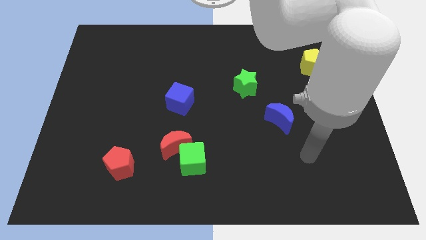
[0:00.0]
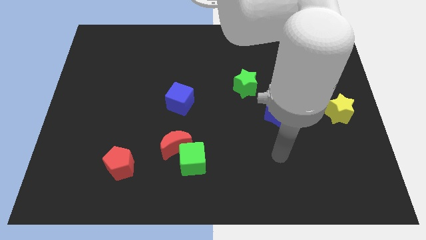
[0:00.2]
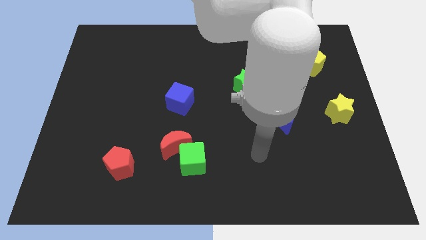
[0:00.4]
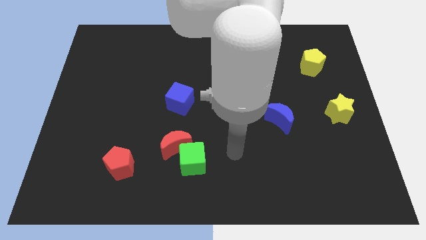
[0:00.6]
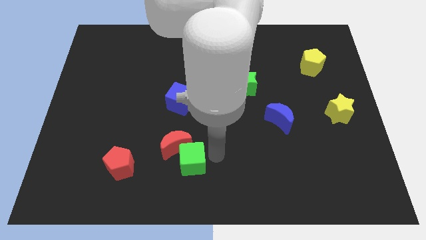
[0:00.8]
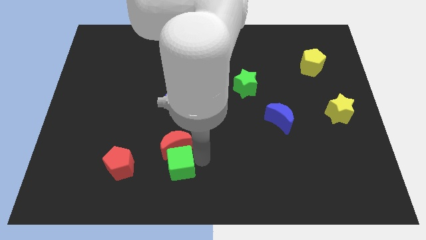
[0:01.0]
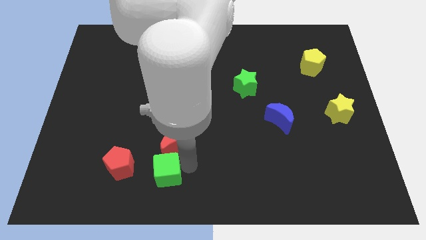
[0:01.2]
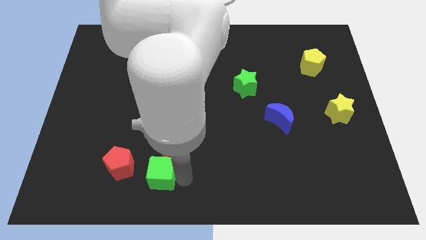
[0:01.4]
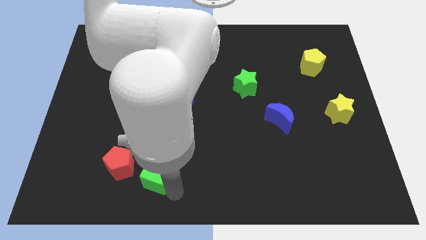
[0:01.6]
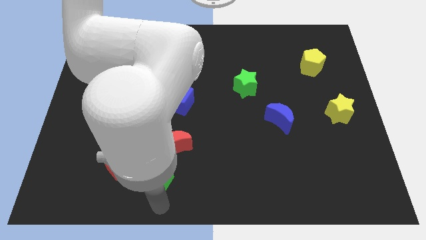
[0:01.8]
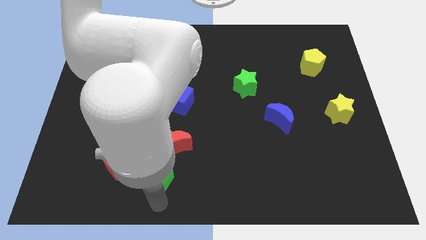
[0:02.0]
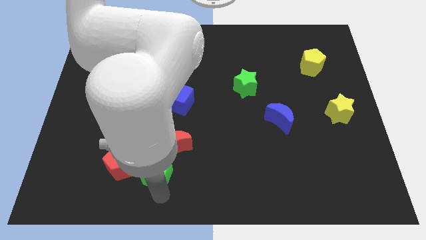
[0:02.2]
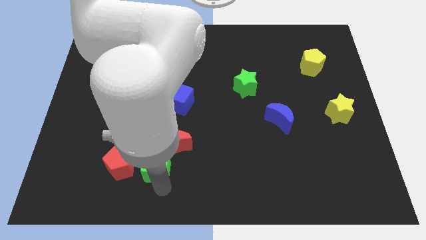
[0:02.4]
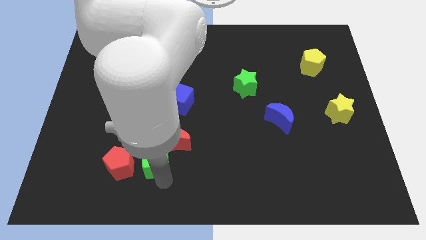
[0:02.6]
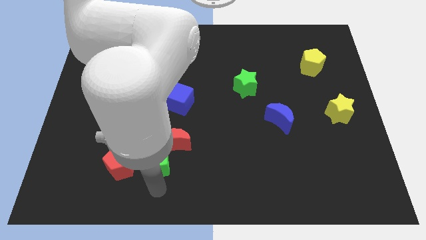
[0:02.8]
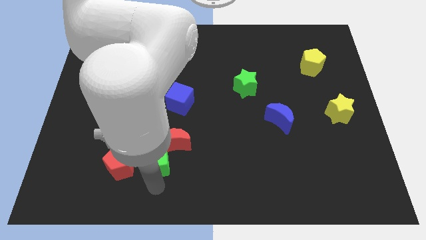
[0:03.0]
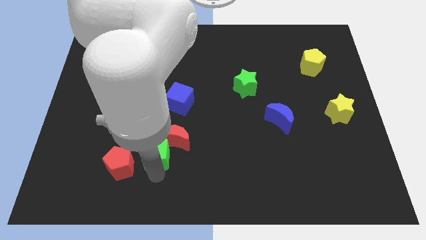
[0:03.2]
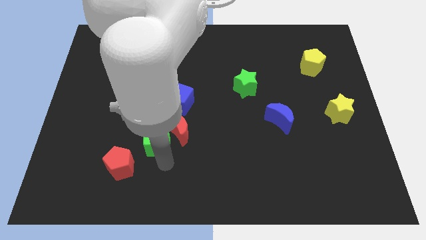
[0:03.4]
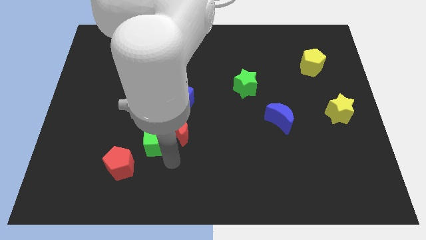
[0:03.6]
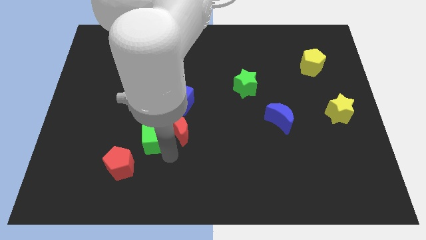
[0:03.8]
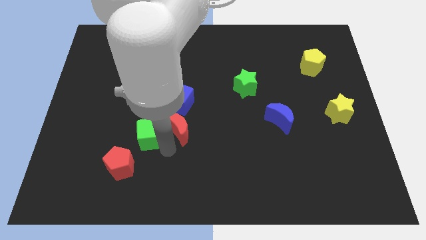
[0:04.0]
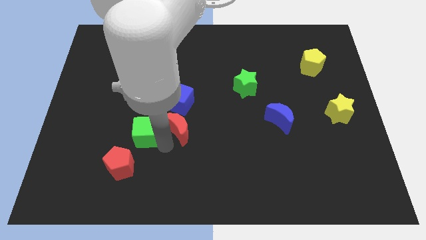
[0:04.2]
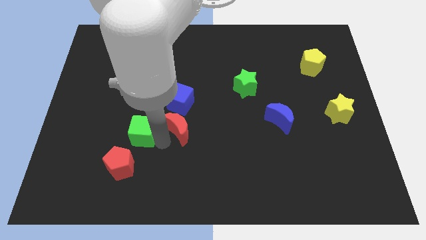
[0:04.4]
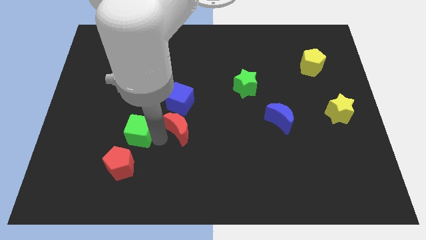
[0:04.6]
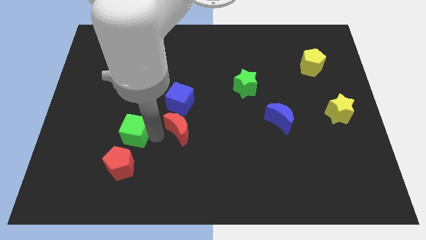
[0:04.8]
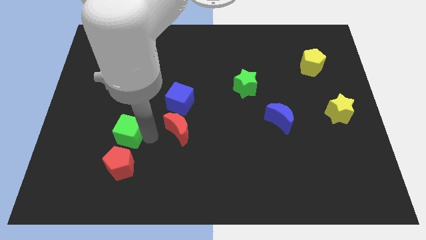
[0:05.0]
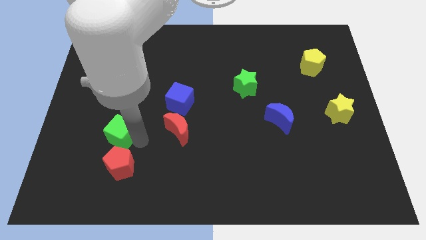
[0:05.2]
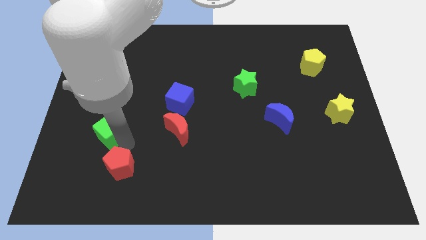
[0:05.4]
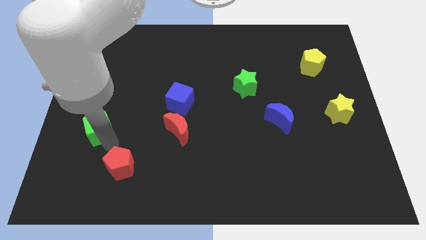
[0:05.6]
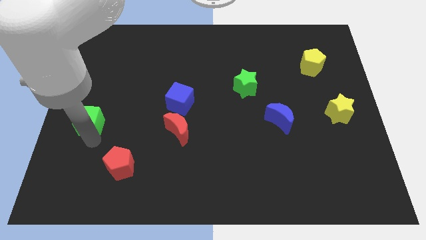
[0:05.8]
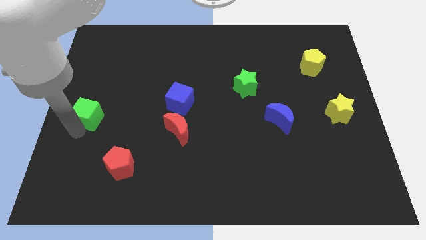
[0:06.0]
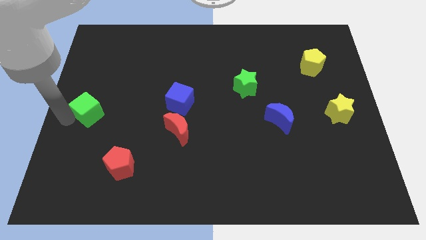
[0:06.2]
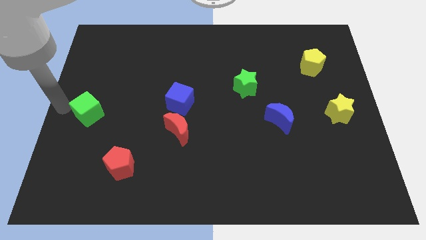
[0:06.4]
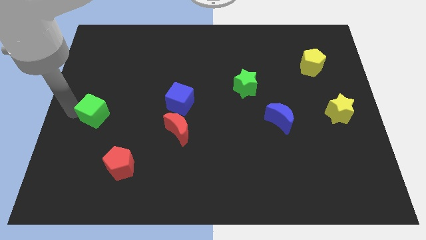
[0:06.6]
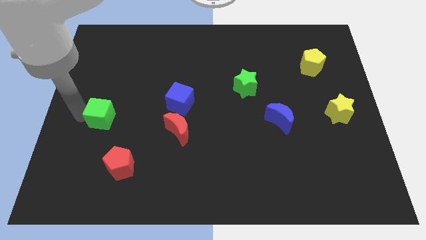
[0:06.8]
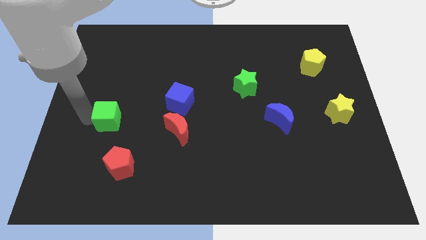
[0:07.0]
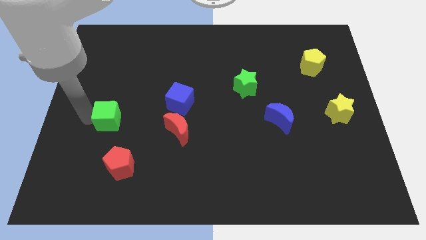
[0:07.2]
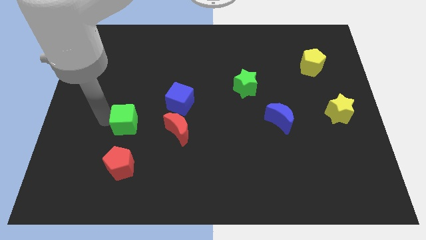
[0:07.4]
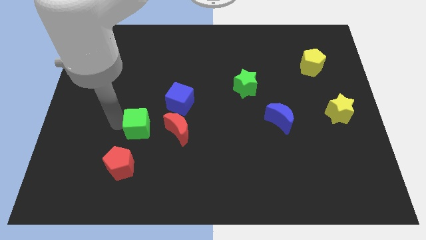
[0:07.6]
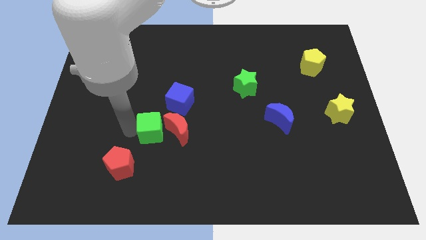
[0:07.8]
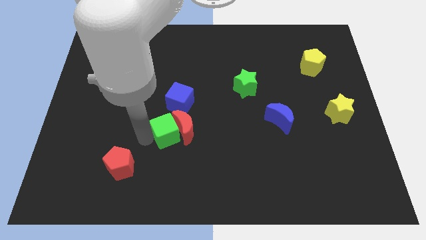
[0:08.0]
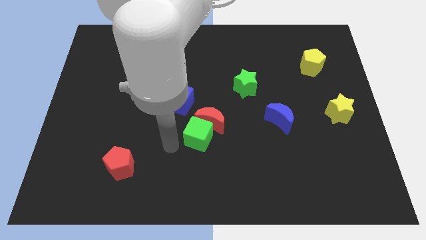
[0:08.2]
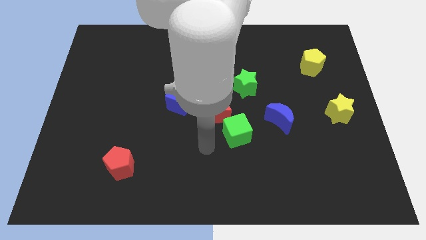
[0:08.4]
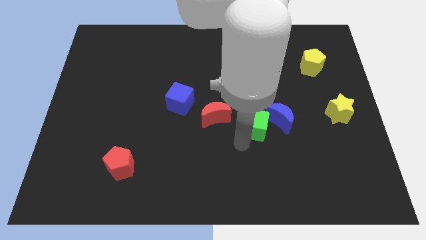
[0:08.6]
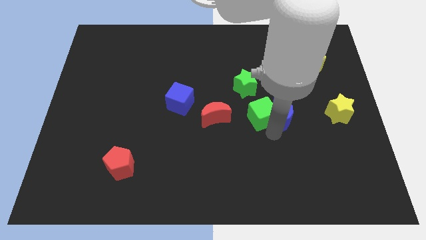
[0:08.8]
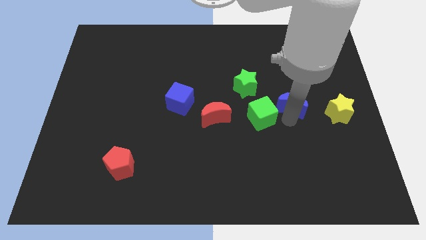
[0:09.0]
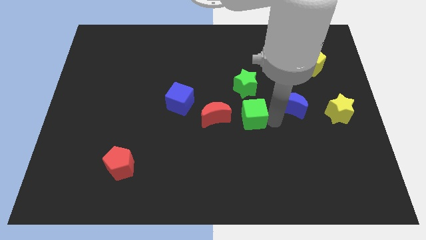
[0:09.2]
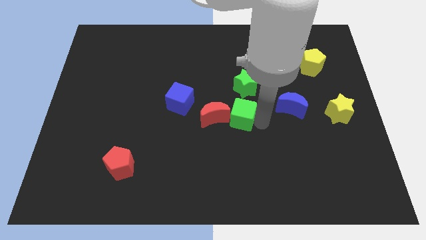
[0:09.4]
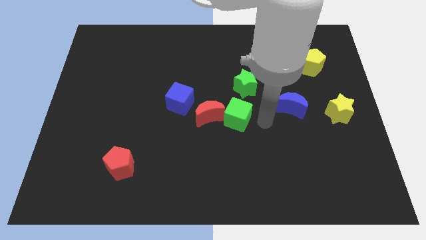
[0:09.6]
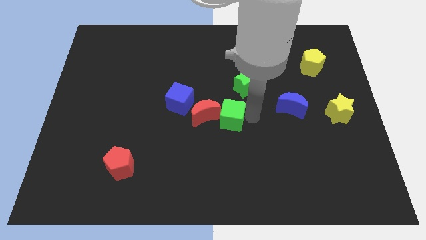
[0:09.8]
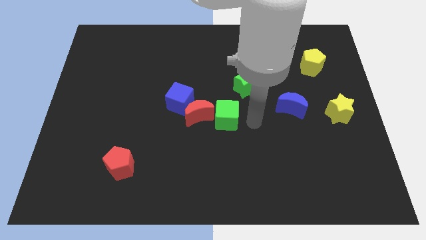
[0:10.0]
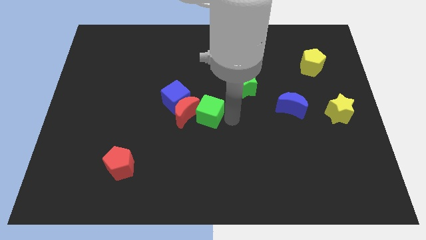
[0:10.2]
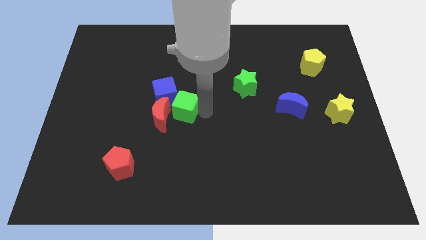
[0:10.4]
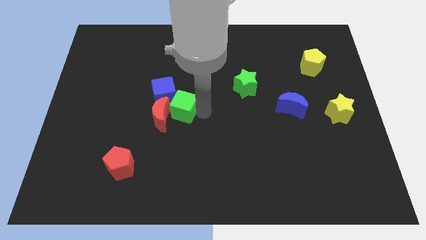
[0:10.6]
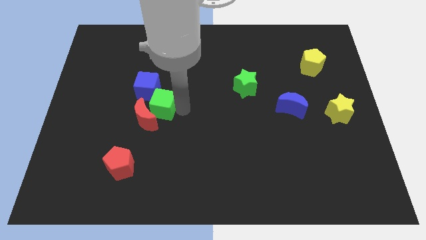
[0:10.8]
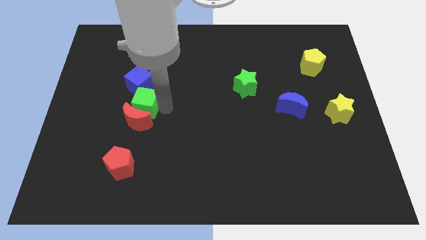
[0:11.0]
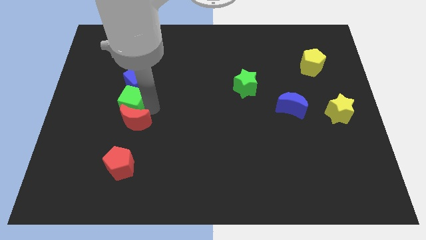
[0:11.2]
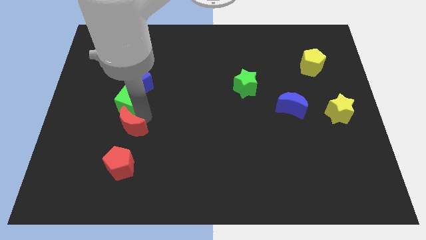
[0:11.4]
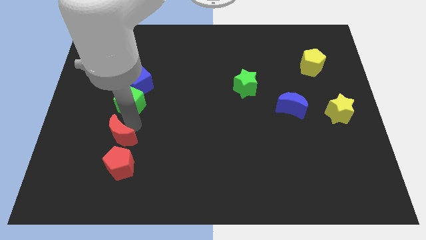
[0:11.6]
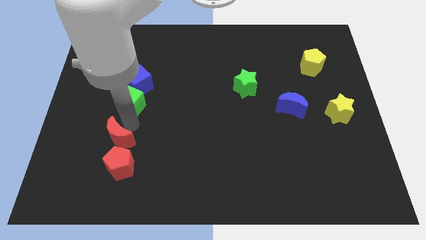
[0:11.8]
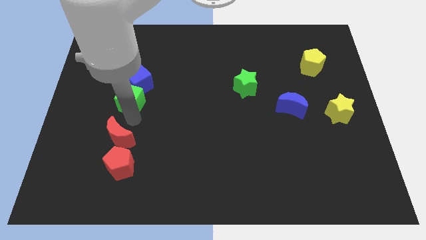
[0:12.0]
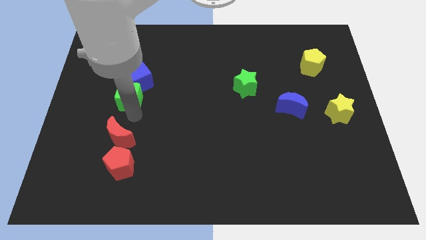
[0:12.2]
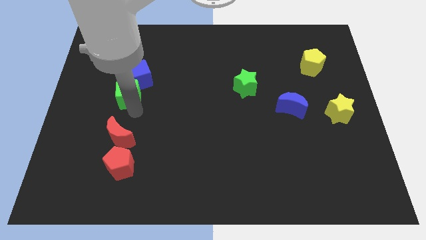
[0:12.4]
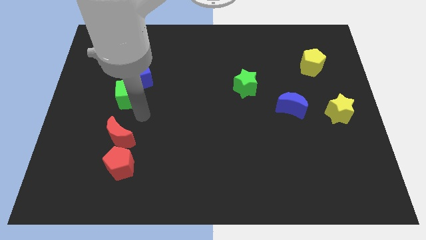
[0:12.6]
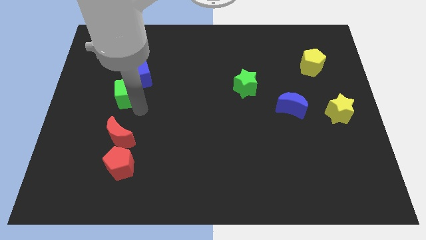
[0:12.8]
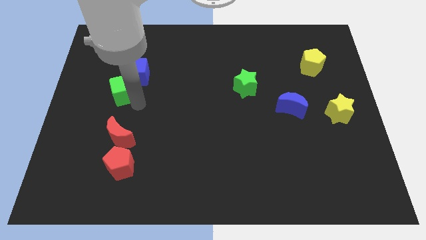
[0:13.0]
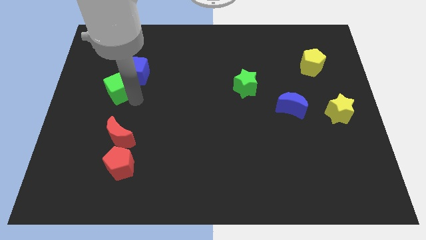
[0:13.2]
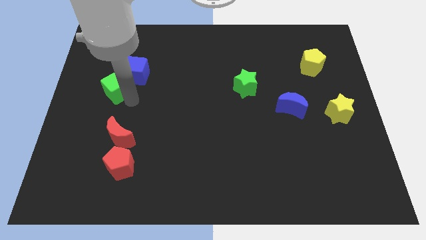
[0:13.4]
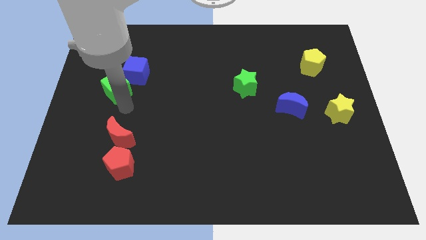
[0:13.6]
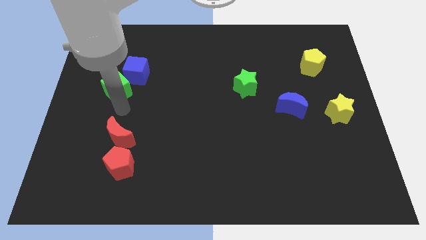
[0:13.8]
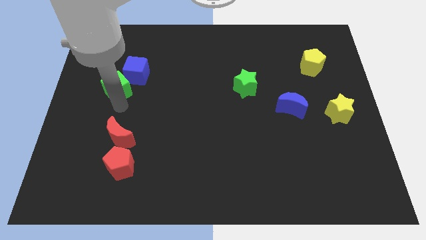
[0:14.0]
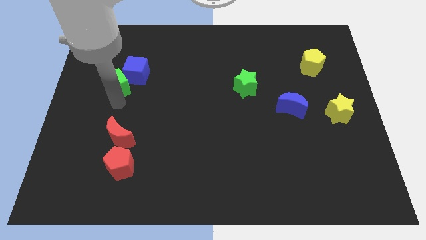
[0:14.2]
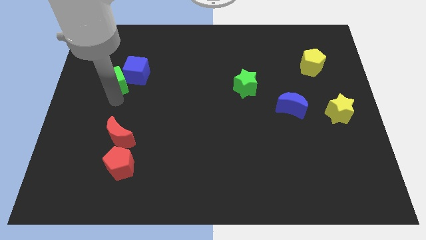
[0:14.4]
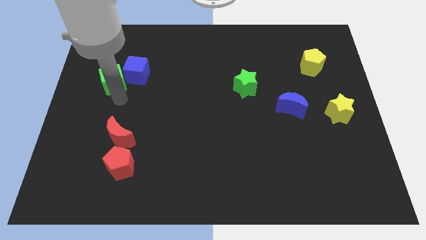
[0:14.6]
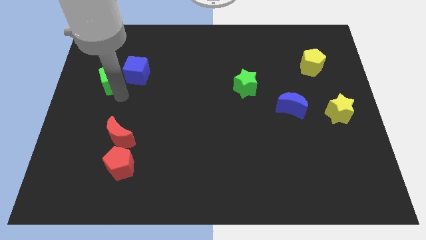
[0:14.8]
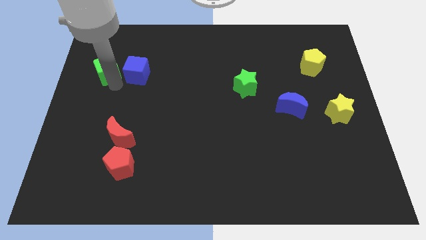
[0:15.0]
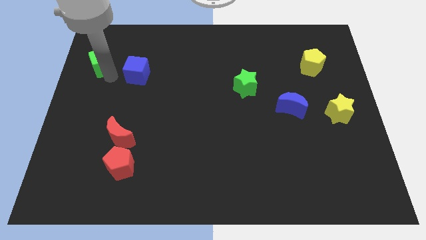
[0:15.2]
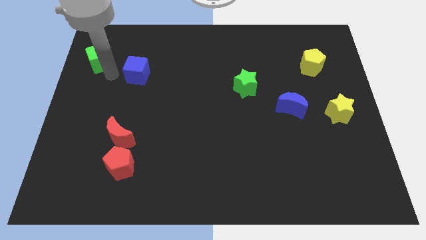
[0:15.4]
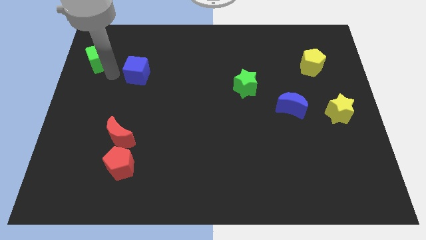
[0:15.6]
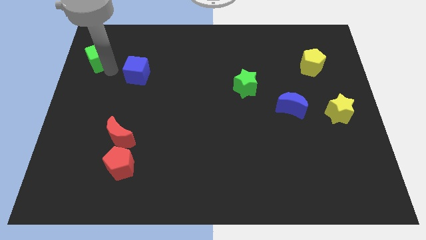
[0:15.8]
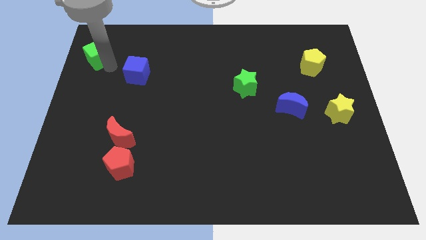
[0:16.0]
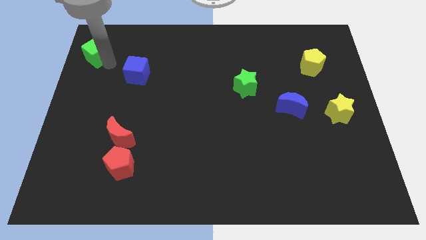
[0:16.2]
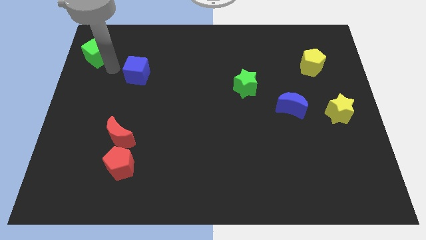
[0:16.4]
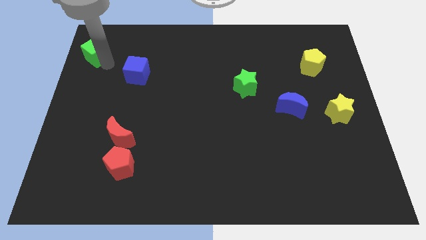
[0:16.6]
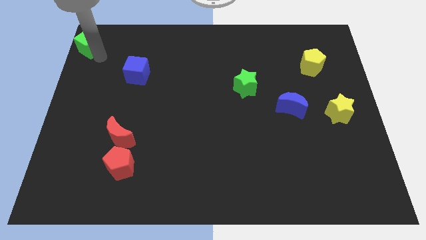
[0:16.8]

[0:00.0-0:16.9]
move the green cube to the top left corner
